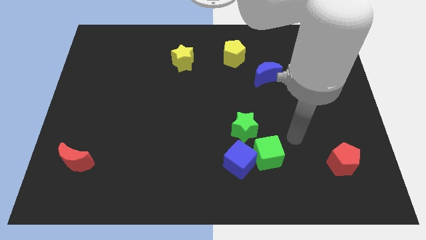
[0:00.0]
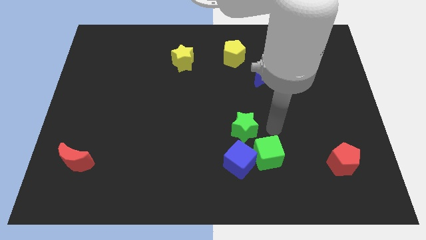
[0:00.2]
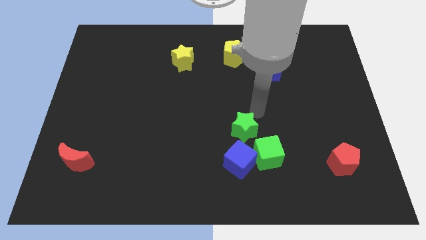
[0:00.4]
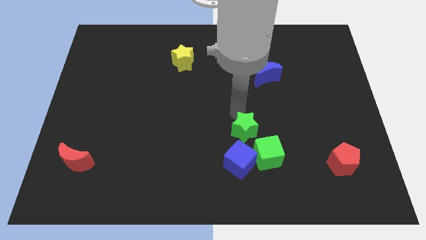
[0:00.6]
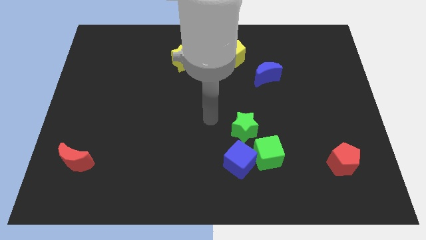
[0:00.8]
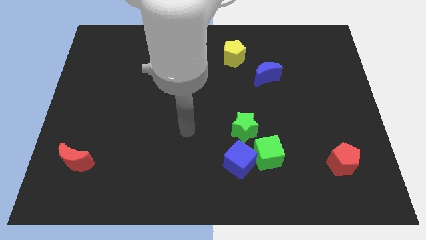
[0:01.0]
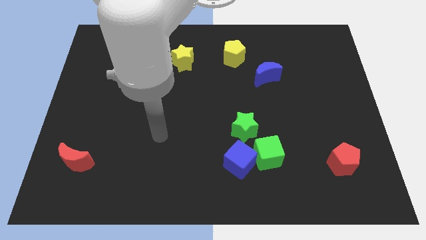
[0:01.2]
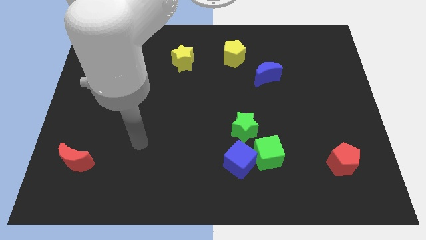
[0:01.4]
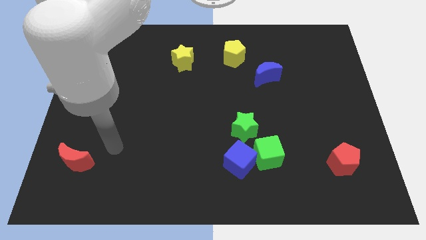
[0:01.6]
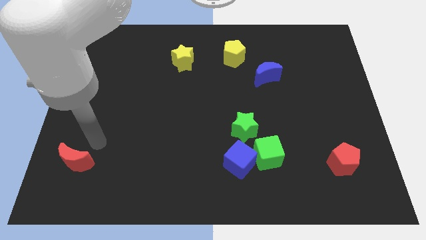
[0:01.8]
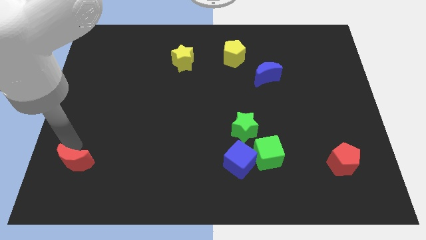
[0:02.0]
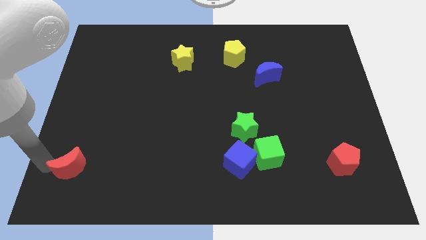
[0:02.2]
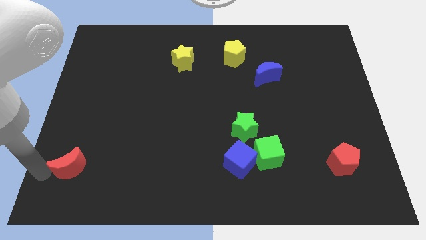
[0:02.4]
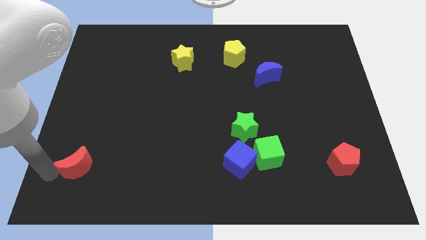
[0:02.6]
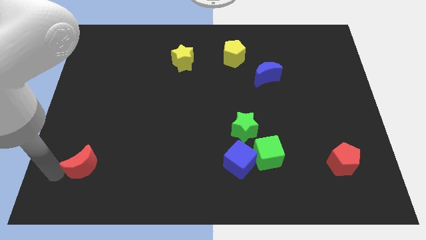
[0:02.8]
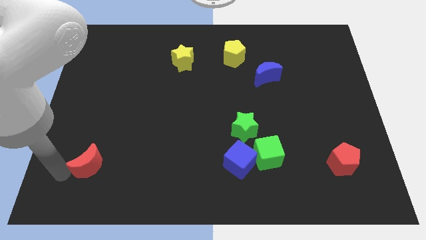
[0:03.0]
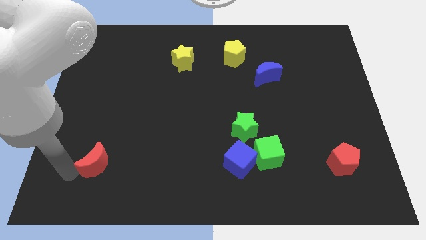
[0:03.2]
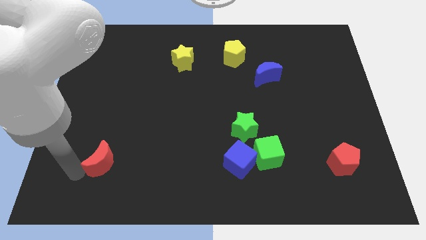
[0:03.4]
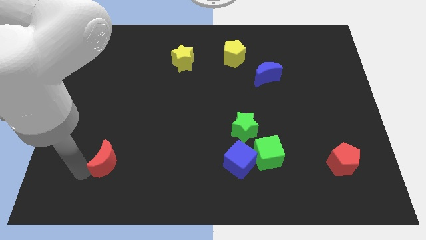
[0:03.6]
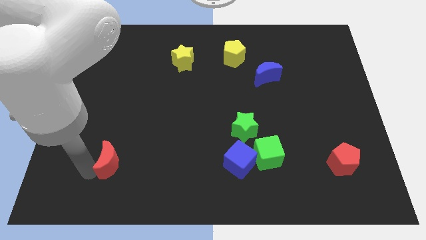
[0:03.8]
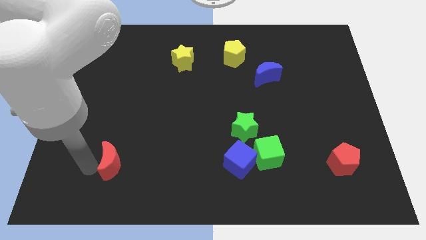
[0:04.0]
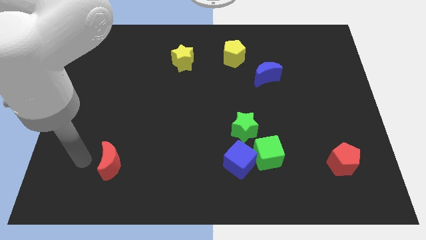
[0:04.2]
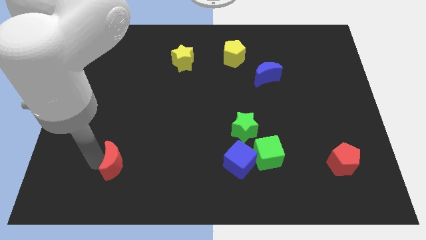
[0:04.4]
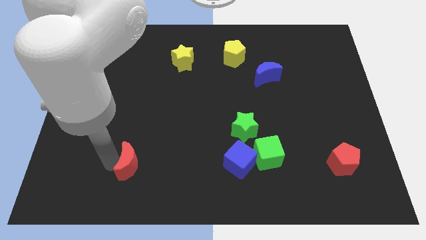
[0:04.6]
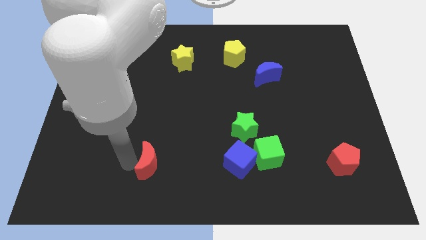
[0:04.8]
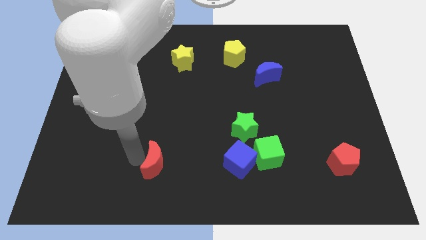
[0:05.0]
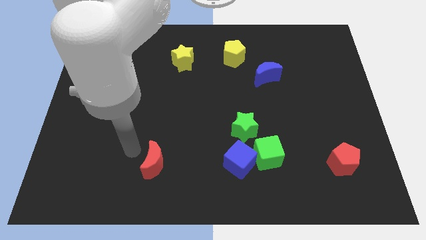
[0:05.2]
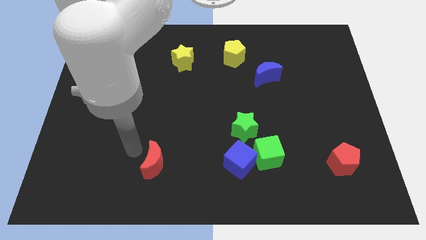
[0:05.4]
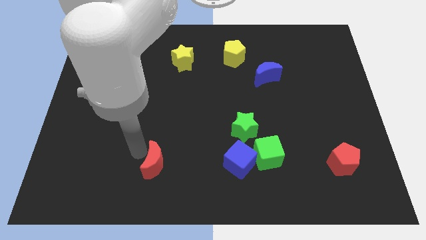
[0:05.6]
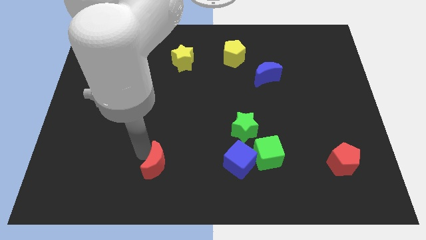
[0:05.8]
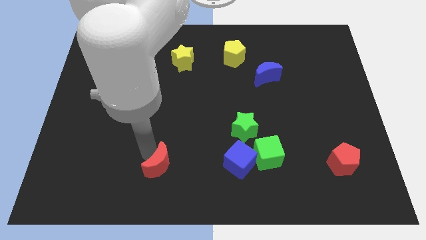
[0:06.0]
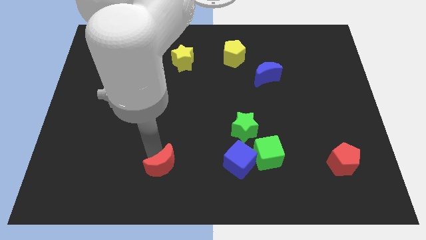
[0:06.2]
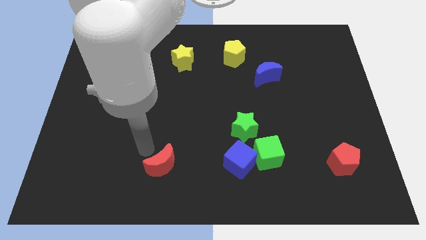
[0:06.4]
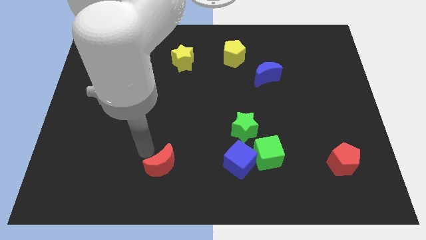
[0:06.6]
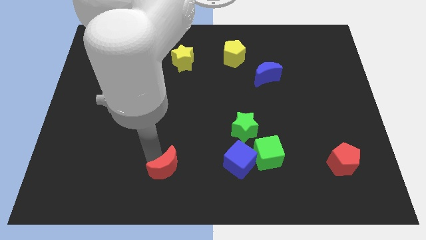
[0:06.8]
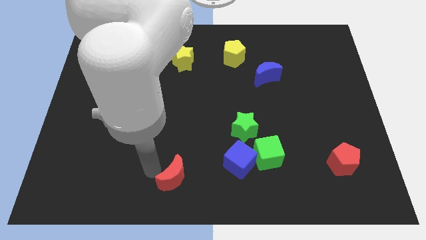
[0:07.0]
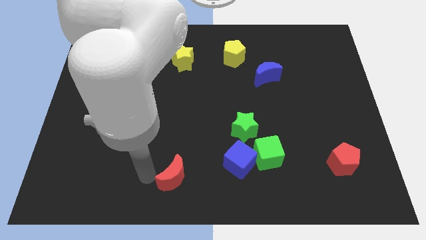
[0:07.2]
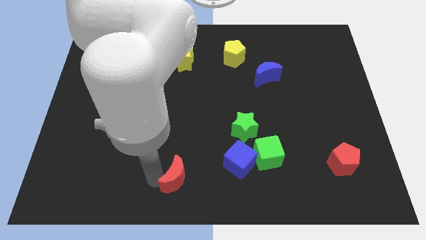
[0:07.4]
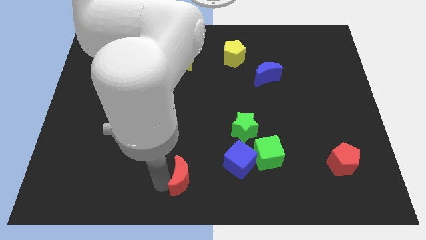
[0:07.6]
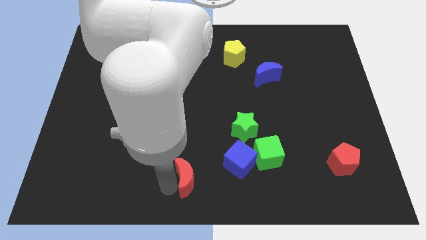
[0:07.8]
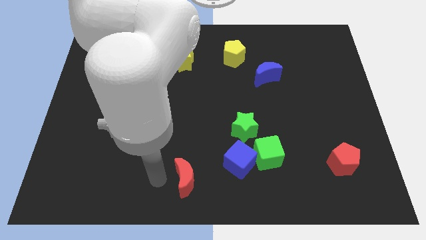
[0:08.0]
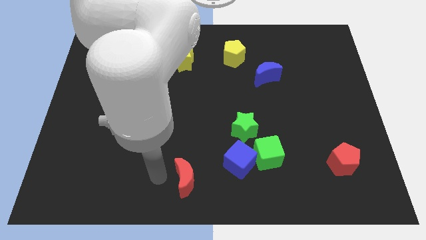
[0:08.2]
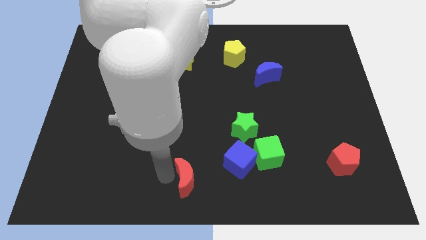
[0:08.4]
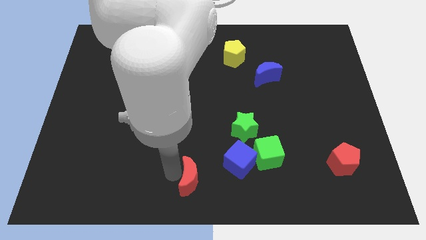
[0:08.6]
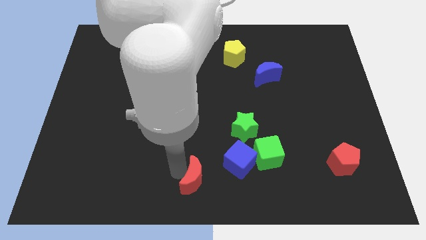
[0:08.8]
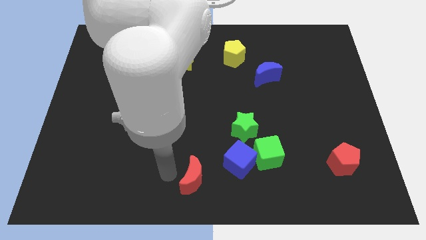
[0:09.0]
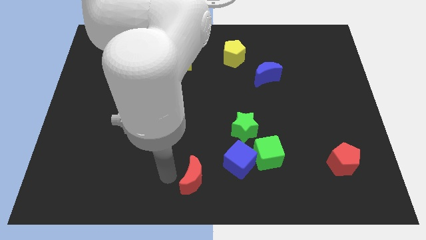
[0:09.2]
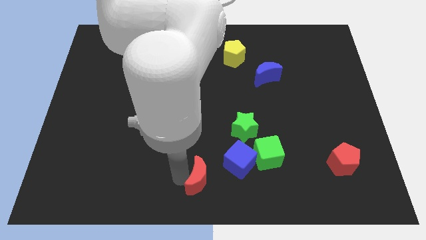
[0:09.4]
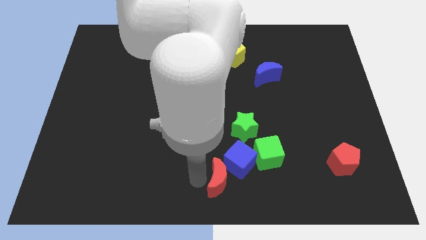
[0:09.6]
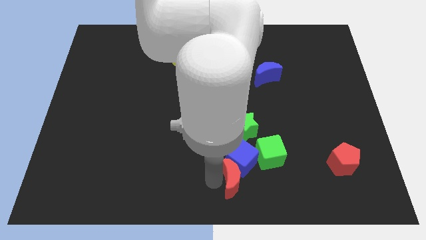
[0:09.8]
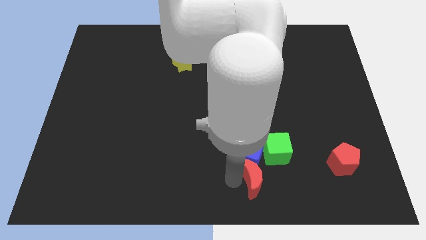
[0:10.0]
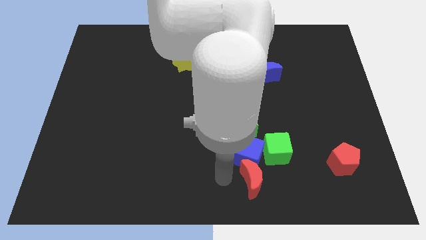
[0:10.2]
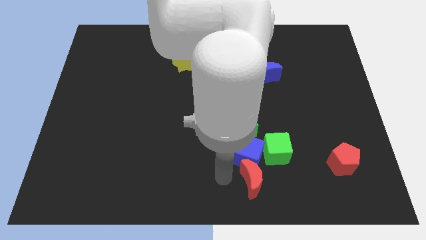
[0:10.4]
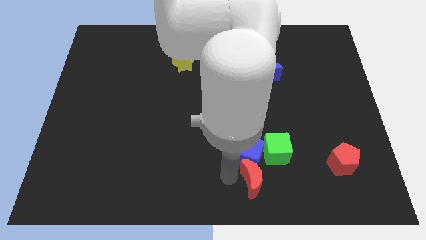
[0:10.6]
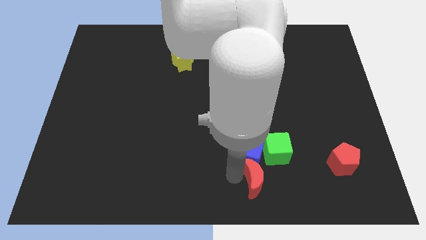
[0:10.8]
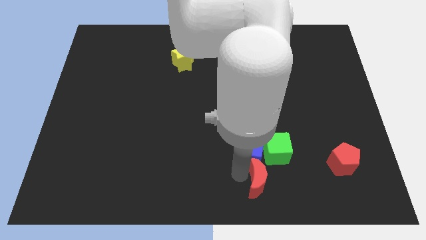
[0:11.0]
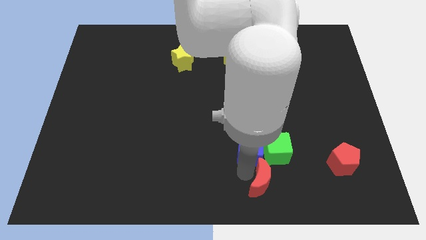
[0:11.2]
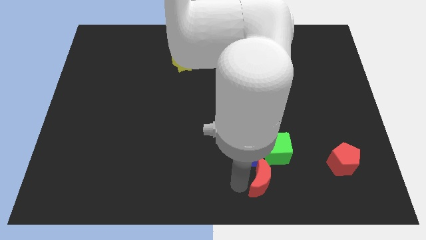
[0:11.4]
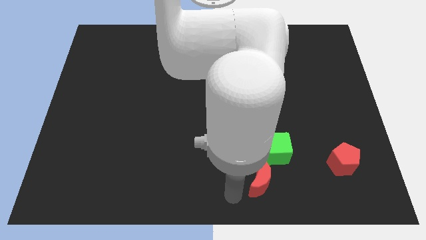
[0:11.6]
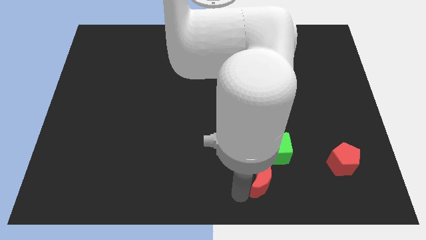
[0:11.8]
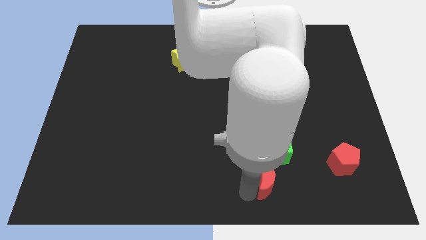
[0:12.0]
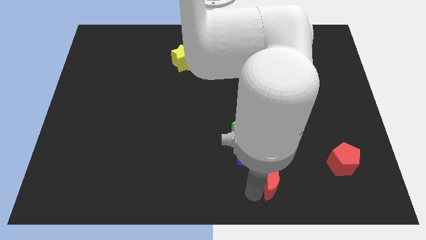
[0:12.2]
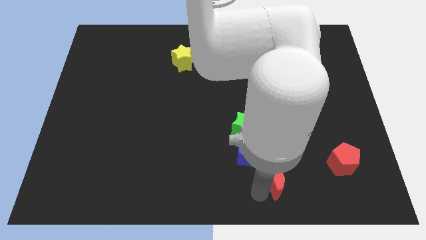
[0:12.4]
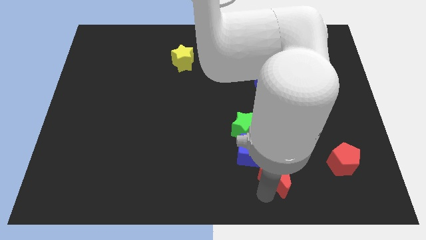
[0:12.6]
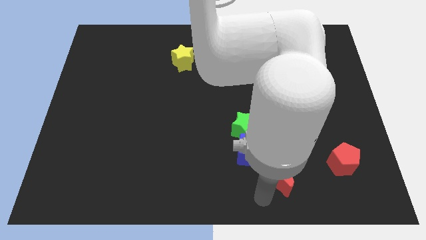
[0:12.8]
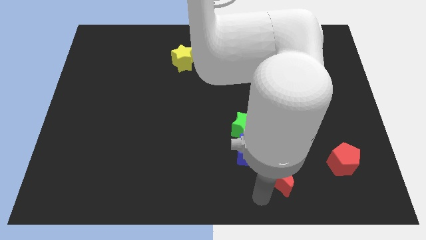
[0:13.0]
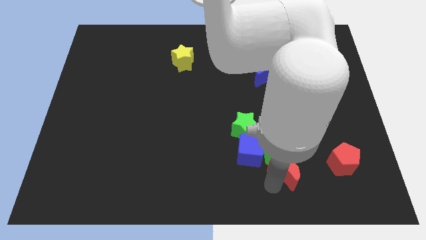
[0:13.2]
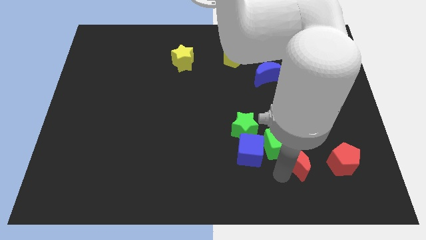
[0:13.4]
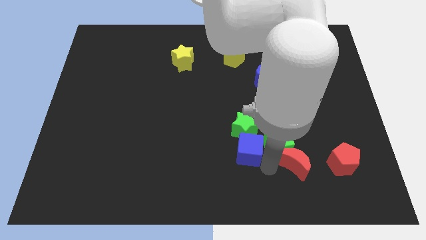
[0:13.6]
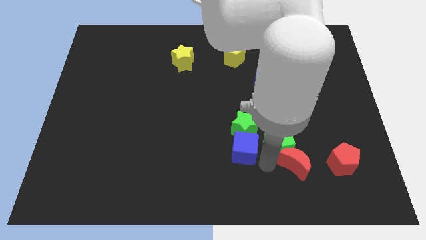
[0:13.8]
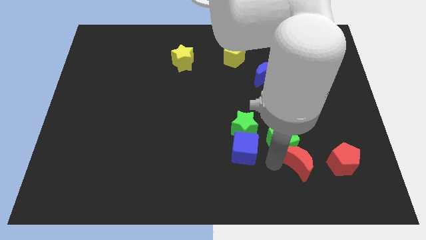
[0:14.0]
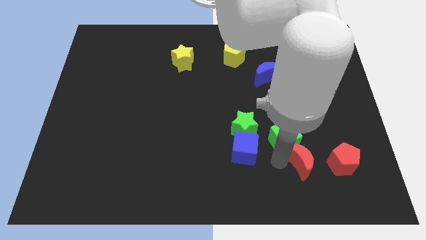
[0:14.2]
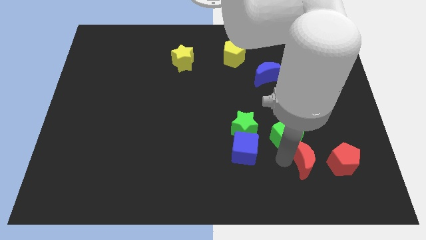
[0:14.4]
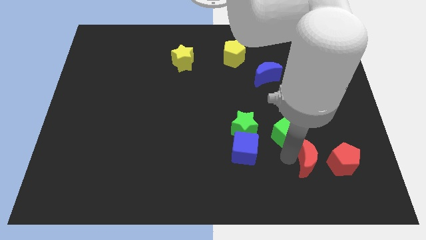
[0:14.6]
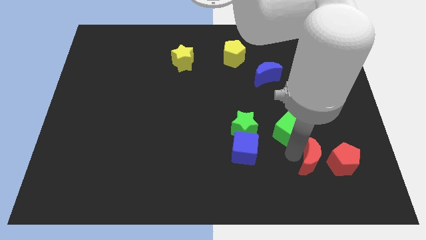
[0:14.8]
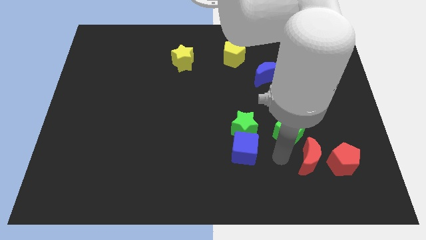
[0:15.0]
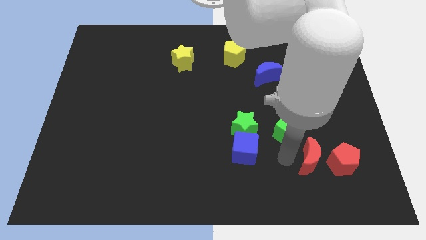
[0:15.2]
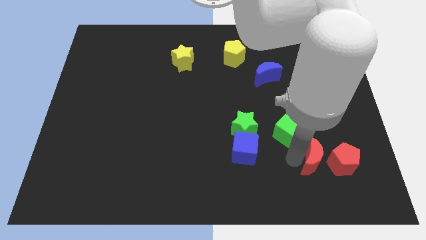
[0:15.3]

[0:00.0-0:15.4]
slide the red moon next to the red pentagon
